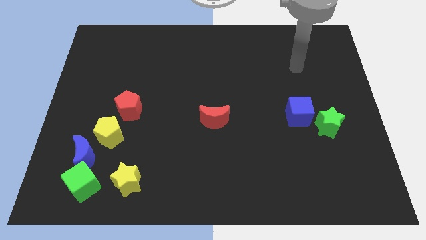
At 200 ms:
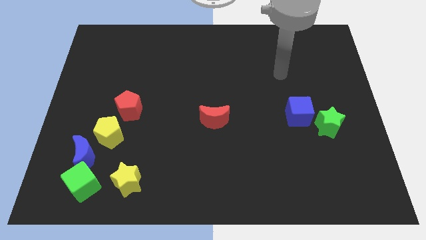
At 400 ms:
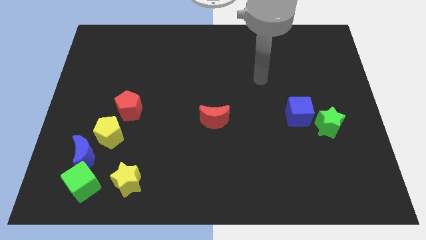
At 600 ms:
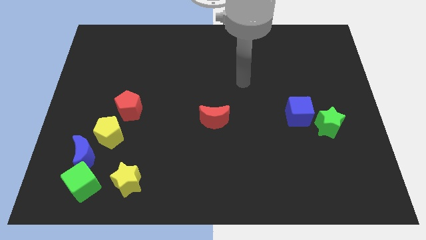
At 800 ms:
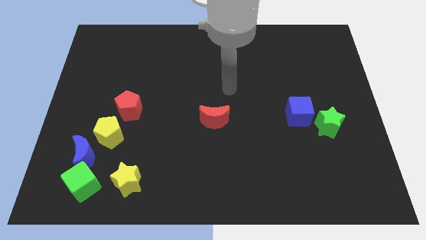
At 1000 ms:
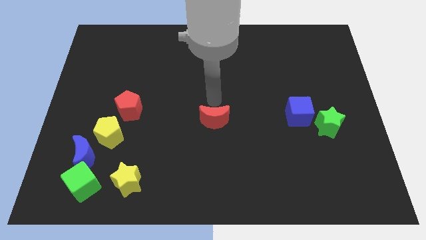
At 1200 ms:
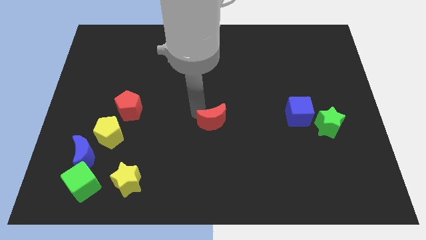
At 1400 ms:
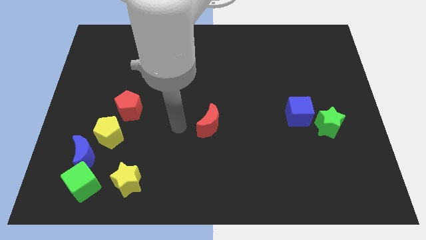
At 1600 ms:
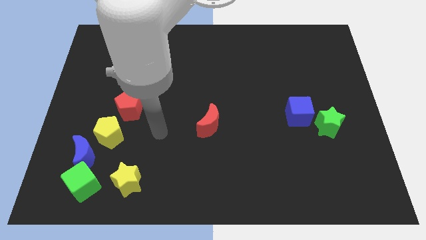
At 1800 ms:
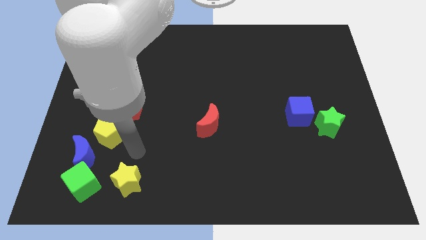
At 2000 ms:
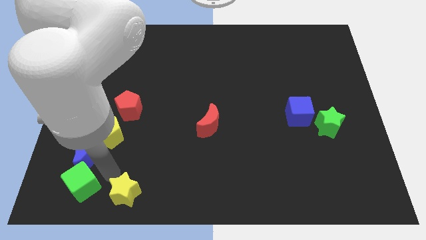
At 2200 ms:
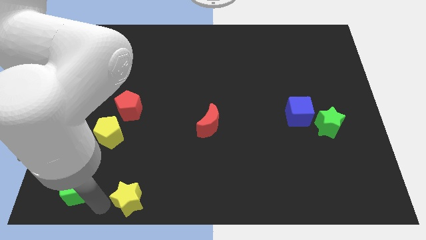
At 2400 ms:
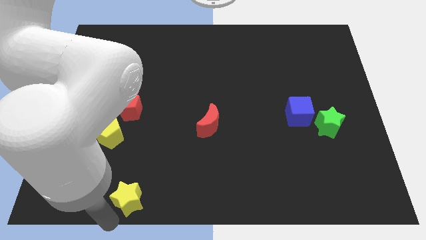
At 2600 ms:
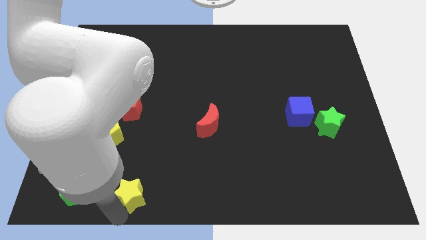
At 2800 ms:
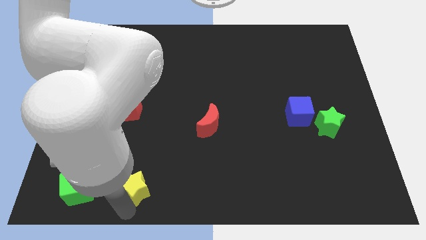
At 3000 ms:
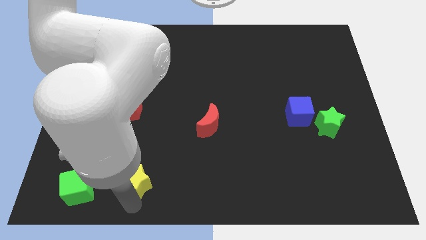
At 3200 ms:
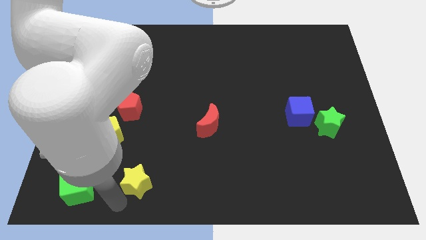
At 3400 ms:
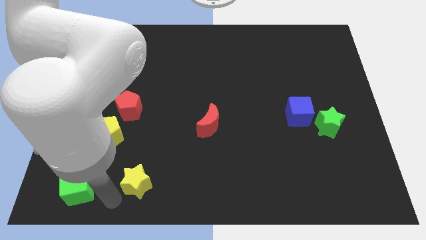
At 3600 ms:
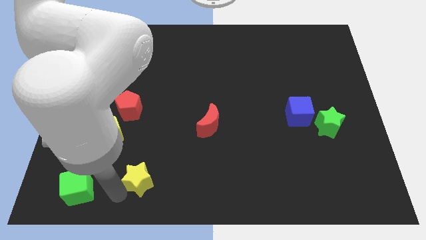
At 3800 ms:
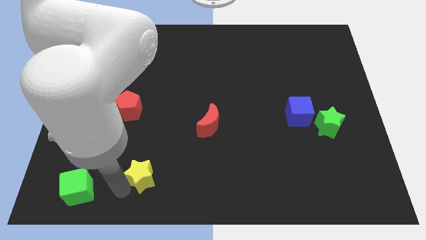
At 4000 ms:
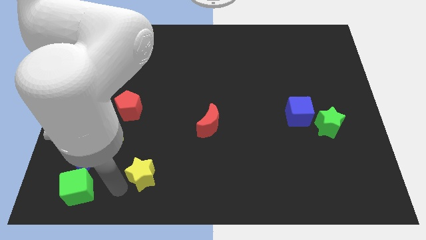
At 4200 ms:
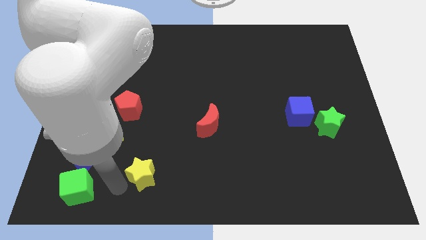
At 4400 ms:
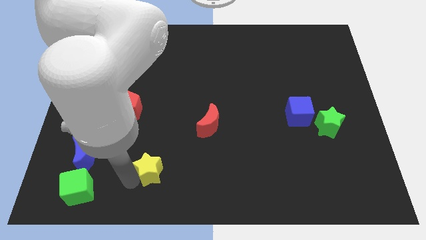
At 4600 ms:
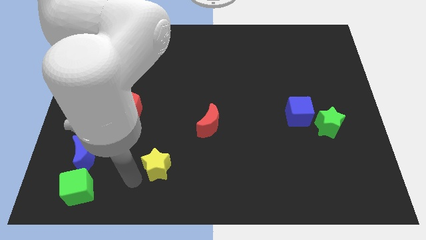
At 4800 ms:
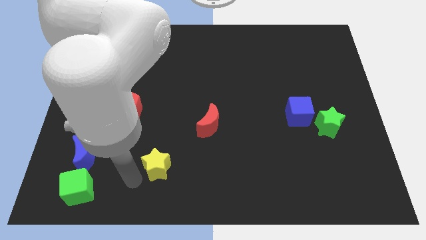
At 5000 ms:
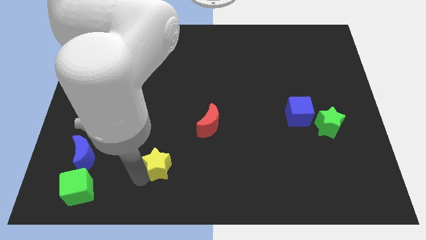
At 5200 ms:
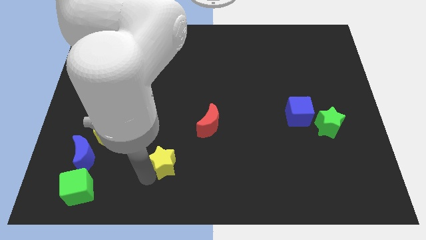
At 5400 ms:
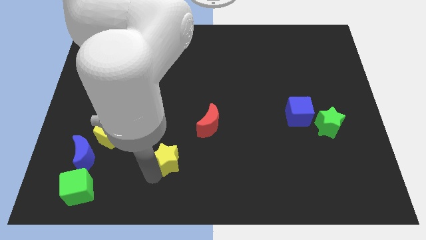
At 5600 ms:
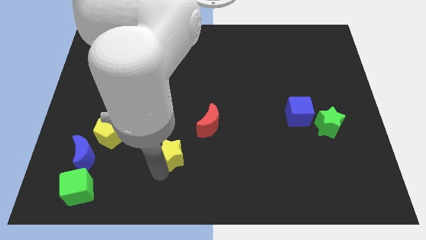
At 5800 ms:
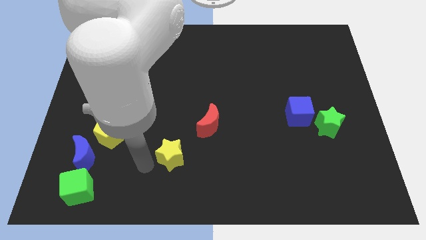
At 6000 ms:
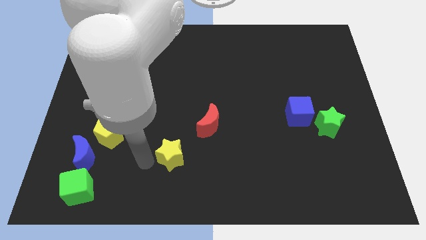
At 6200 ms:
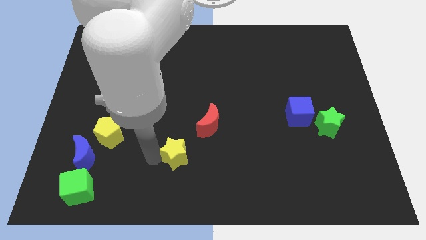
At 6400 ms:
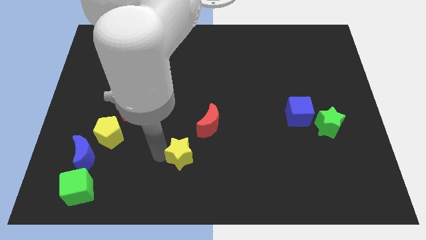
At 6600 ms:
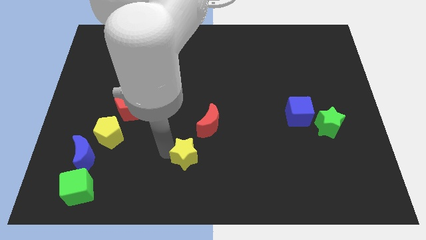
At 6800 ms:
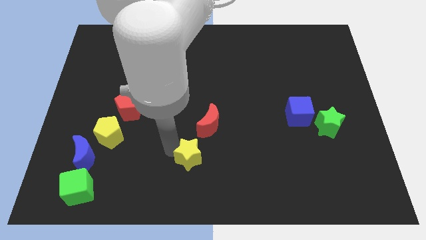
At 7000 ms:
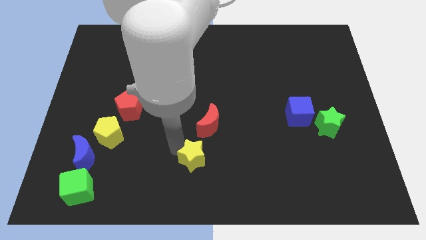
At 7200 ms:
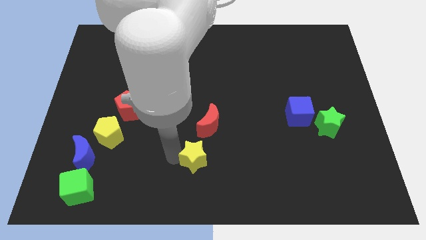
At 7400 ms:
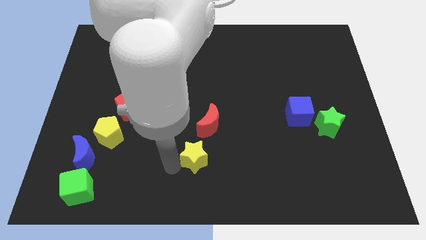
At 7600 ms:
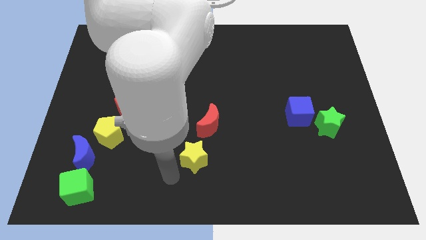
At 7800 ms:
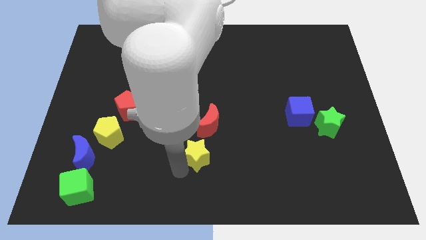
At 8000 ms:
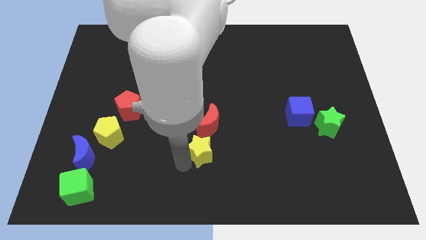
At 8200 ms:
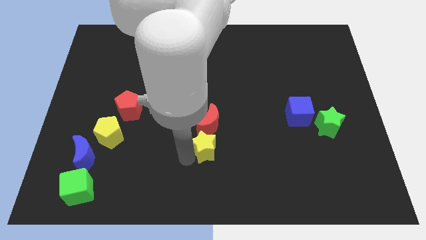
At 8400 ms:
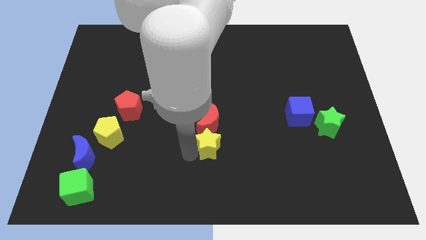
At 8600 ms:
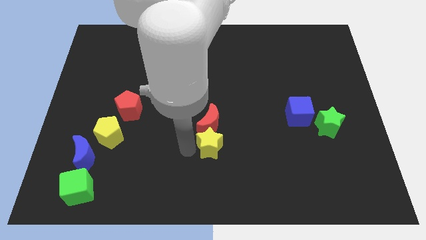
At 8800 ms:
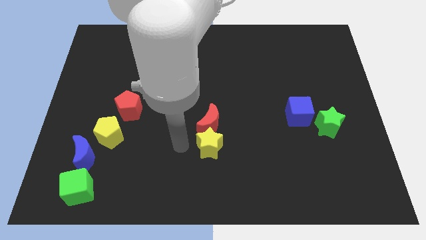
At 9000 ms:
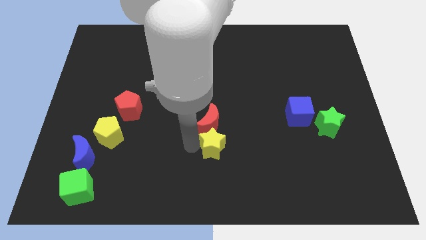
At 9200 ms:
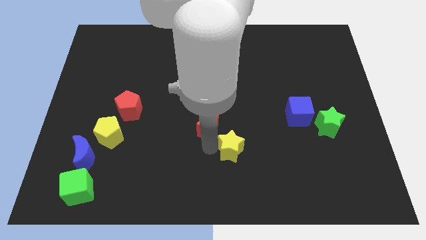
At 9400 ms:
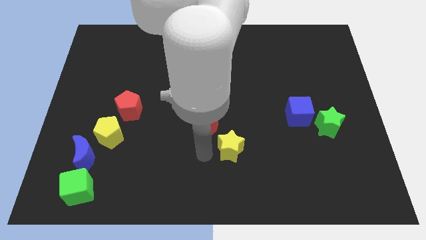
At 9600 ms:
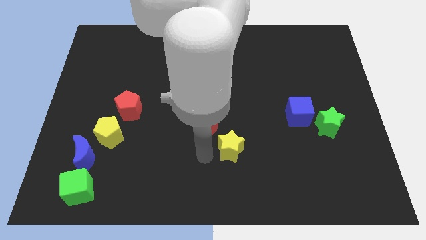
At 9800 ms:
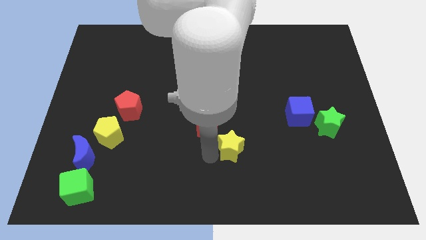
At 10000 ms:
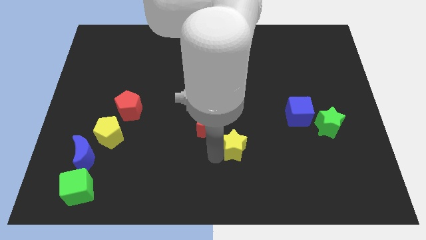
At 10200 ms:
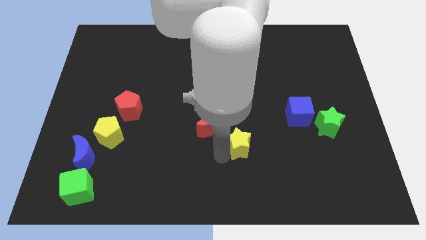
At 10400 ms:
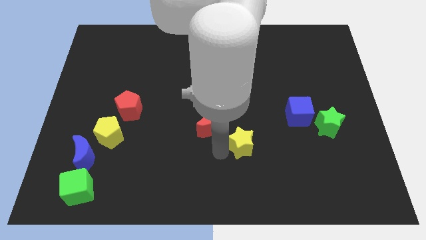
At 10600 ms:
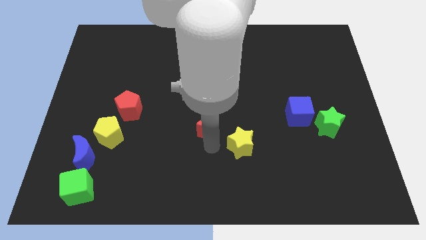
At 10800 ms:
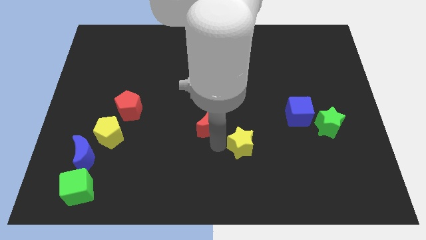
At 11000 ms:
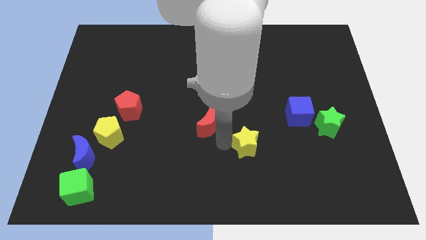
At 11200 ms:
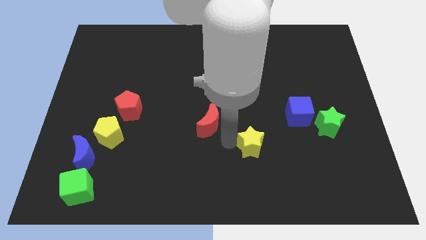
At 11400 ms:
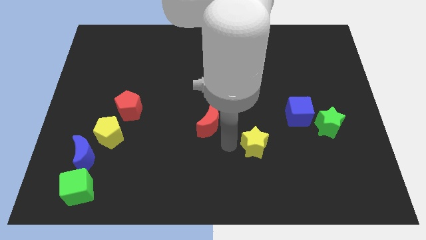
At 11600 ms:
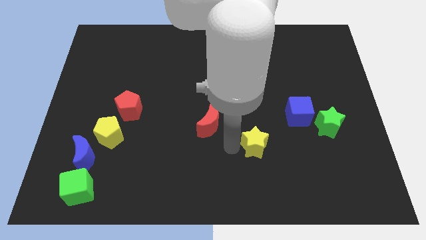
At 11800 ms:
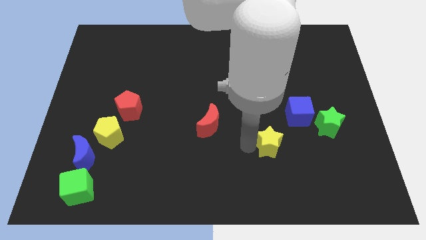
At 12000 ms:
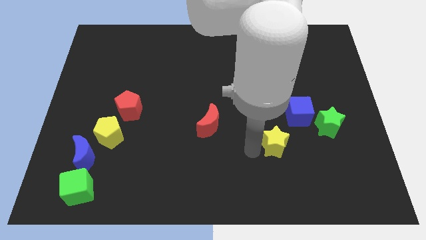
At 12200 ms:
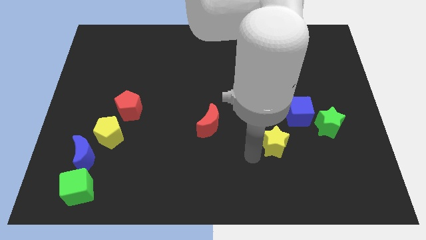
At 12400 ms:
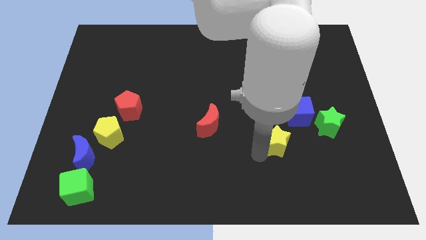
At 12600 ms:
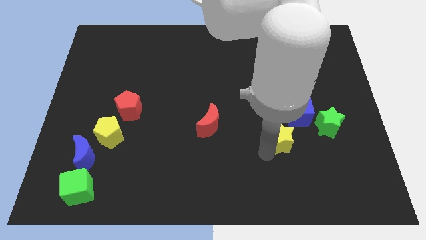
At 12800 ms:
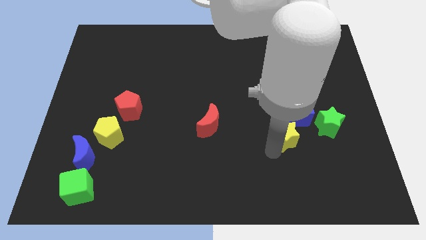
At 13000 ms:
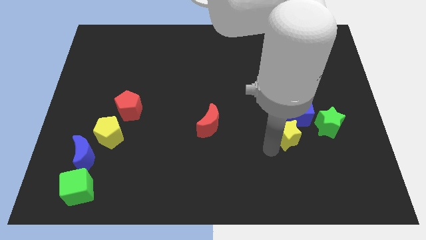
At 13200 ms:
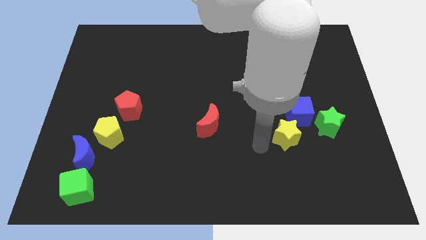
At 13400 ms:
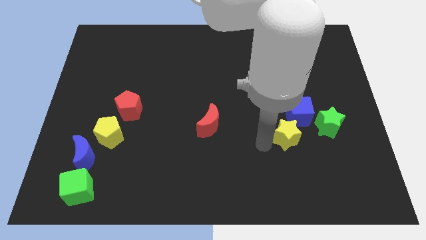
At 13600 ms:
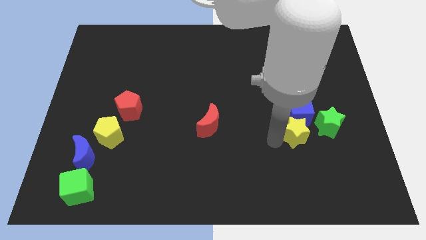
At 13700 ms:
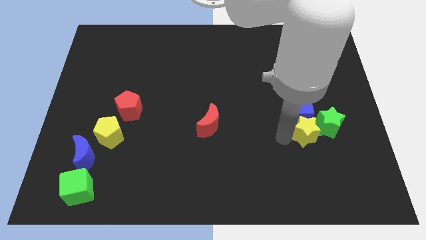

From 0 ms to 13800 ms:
move the yellow star close to the green star

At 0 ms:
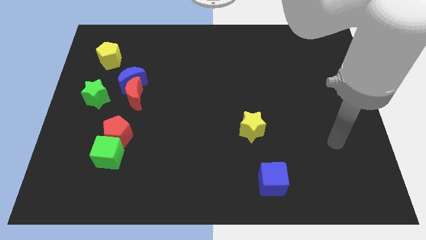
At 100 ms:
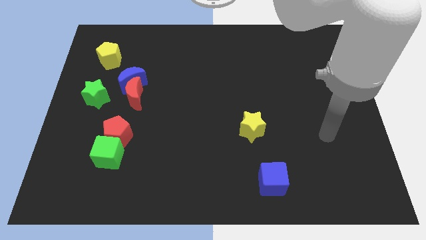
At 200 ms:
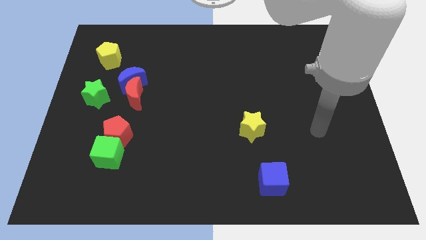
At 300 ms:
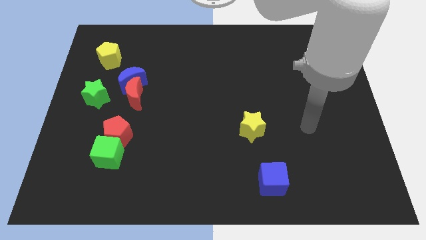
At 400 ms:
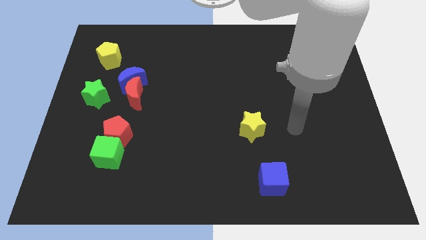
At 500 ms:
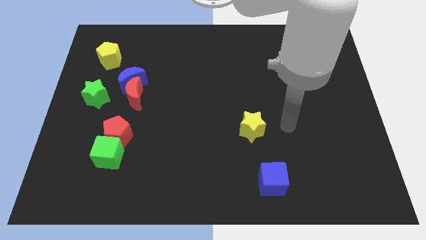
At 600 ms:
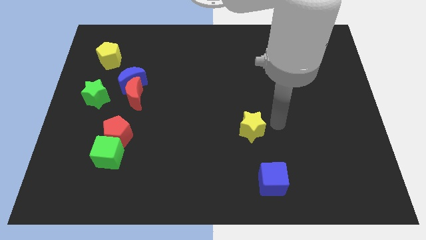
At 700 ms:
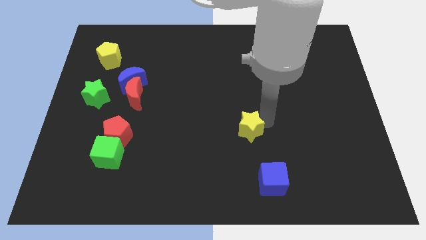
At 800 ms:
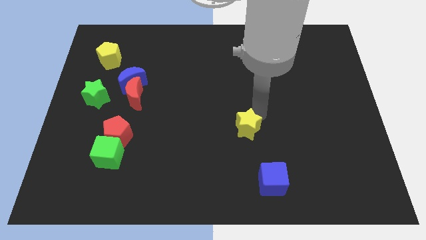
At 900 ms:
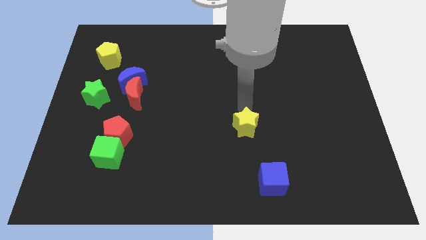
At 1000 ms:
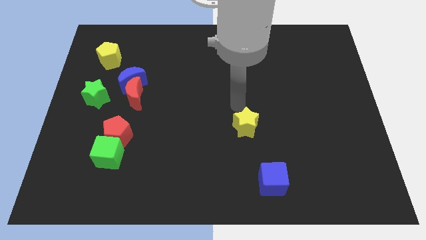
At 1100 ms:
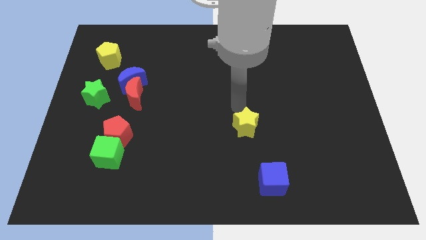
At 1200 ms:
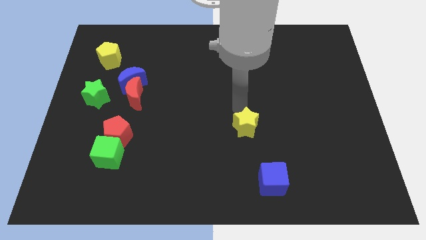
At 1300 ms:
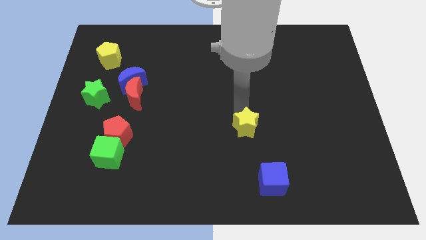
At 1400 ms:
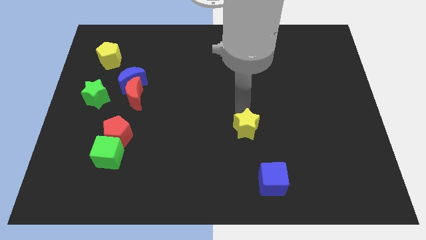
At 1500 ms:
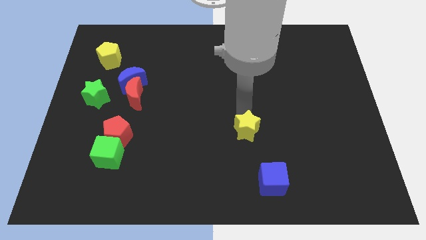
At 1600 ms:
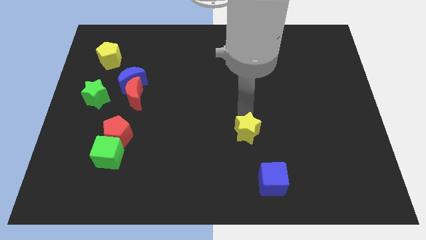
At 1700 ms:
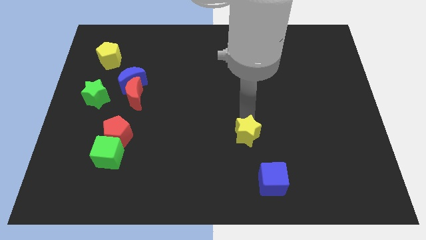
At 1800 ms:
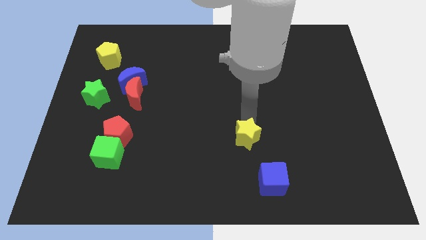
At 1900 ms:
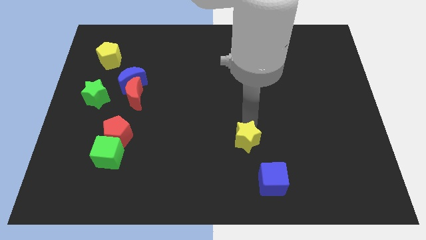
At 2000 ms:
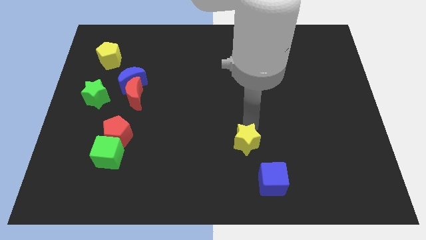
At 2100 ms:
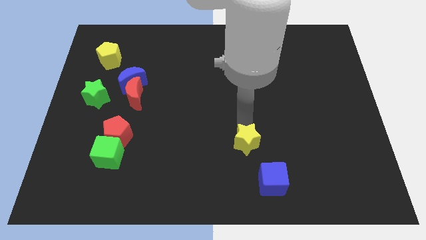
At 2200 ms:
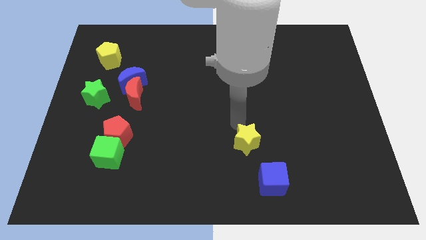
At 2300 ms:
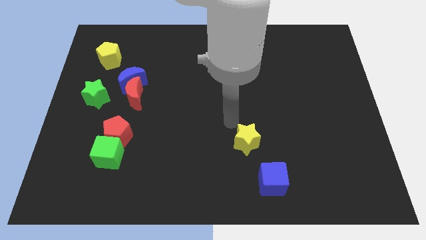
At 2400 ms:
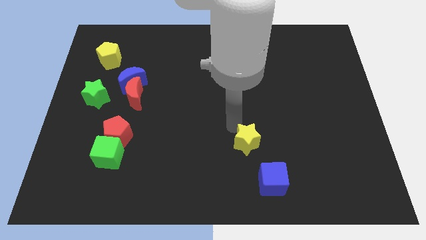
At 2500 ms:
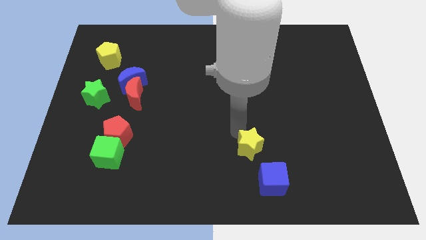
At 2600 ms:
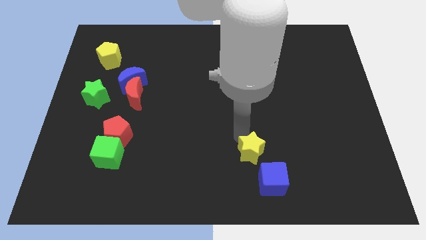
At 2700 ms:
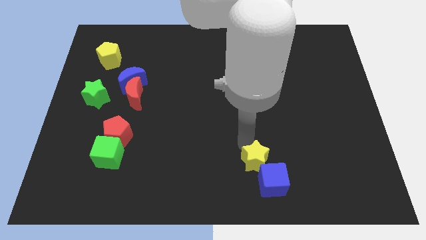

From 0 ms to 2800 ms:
push the yellow star next to the blue cube
